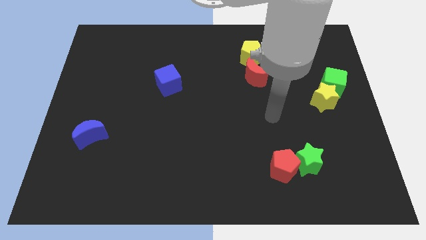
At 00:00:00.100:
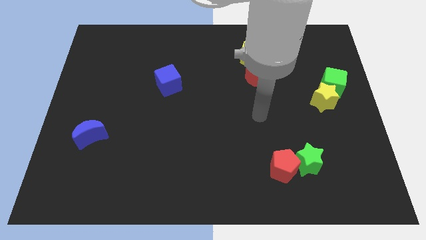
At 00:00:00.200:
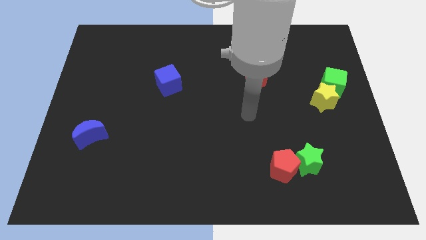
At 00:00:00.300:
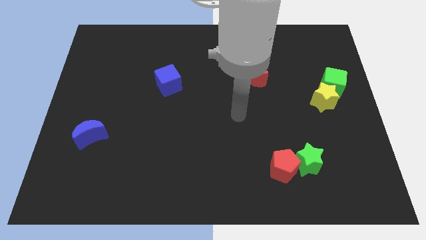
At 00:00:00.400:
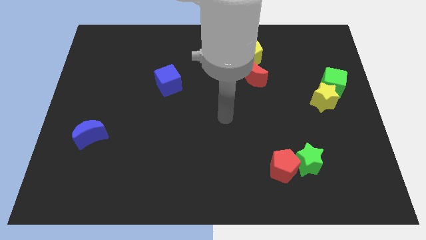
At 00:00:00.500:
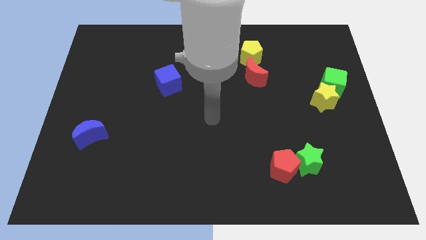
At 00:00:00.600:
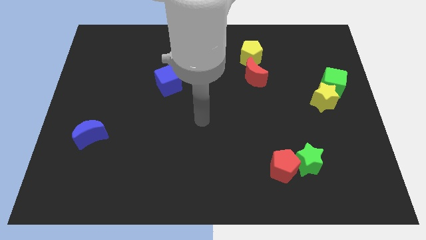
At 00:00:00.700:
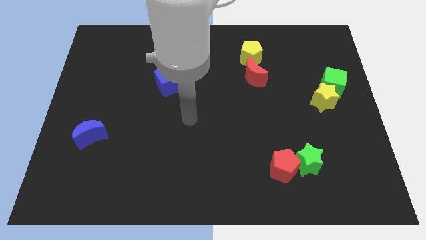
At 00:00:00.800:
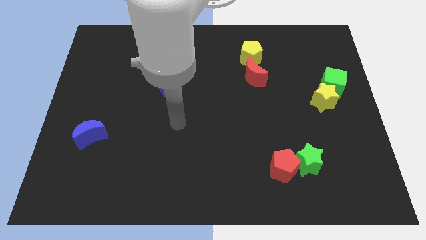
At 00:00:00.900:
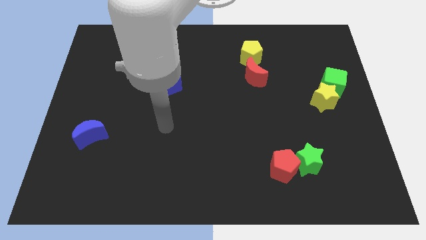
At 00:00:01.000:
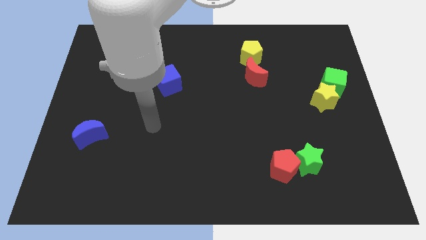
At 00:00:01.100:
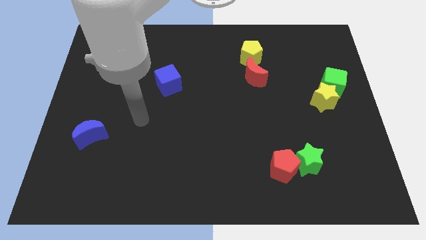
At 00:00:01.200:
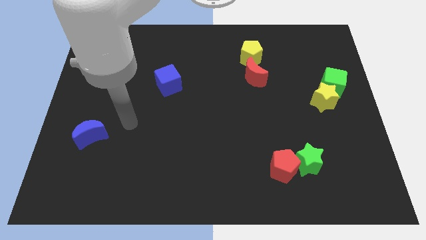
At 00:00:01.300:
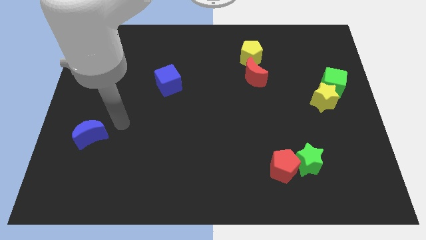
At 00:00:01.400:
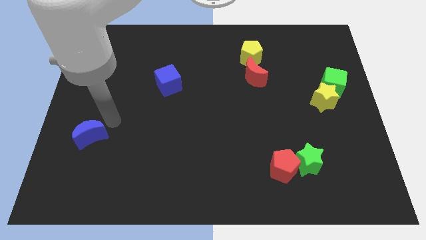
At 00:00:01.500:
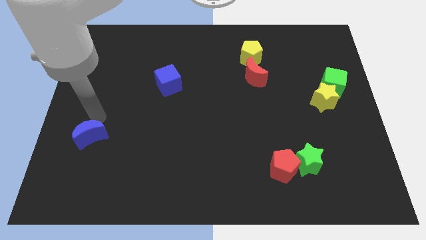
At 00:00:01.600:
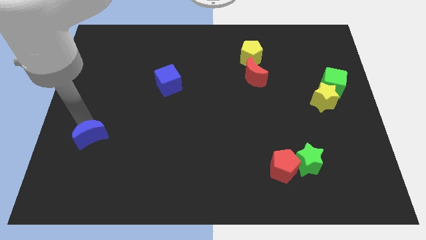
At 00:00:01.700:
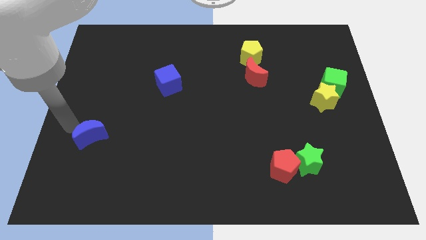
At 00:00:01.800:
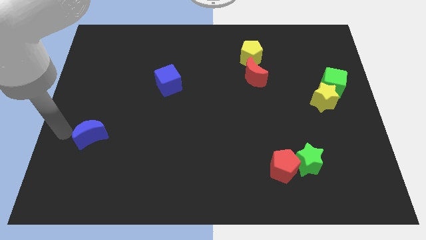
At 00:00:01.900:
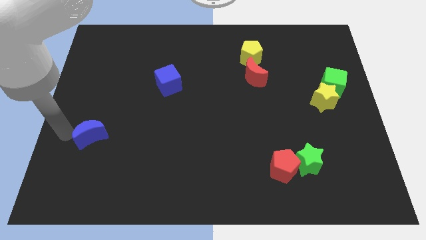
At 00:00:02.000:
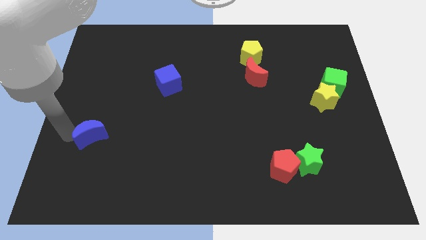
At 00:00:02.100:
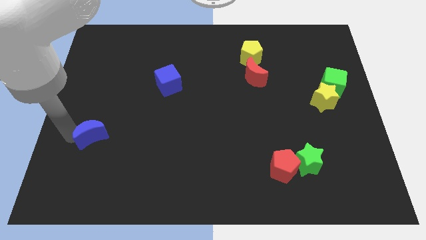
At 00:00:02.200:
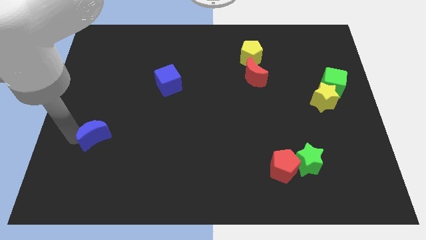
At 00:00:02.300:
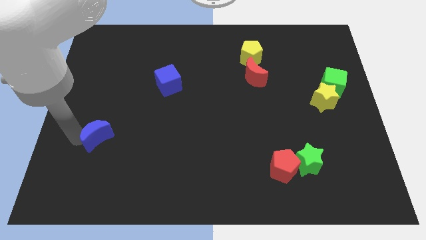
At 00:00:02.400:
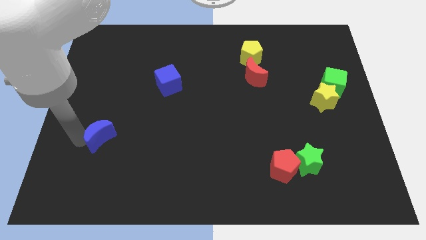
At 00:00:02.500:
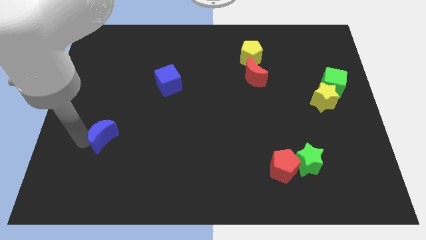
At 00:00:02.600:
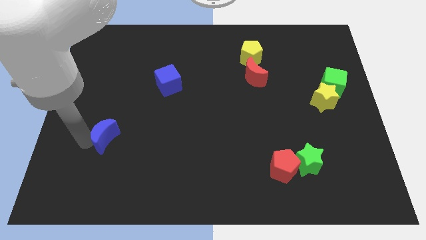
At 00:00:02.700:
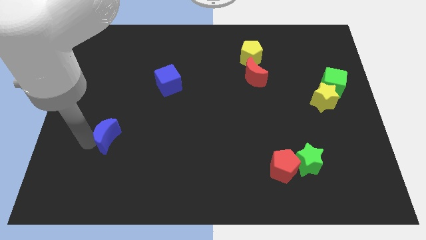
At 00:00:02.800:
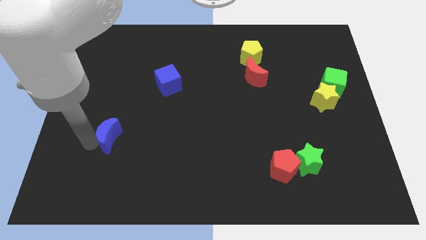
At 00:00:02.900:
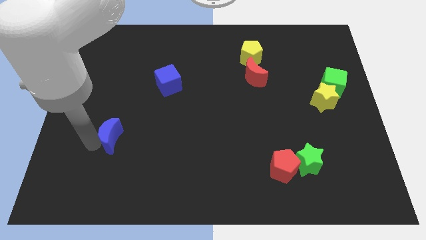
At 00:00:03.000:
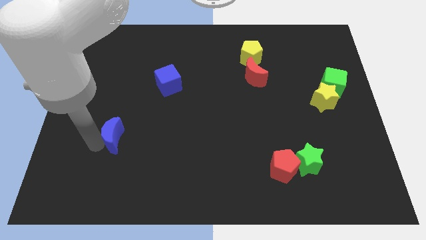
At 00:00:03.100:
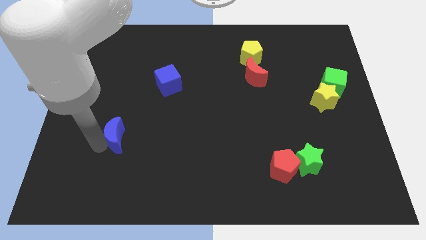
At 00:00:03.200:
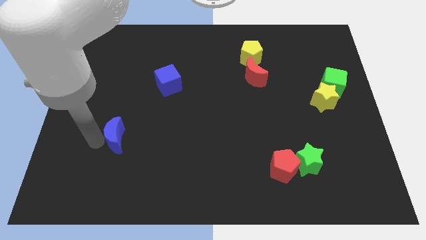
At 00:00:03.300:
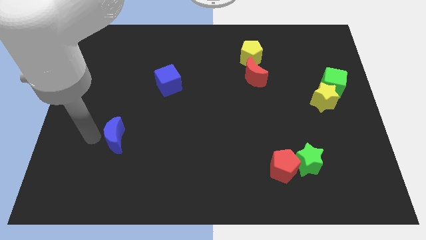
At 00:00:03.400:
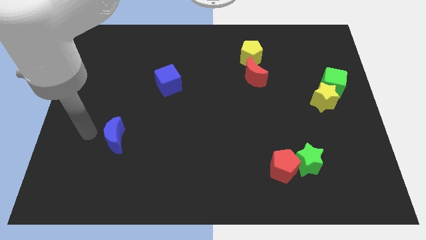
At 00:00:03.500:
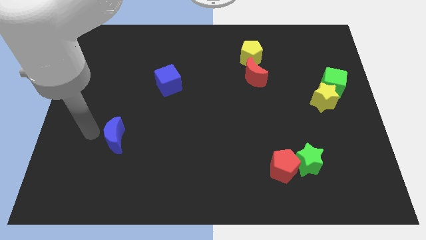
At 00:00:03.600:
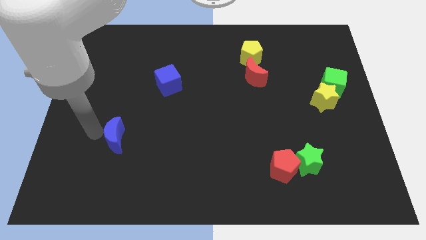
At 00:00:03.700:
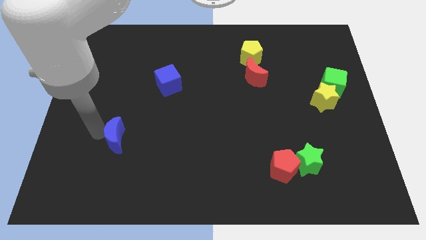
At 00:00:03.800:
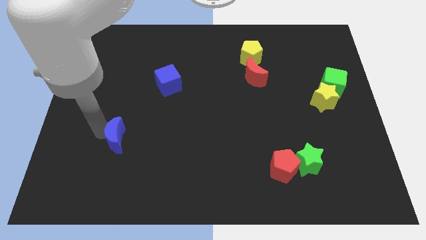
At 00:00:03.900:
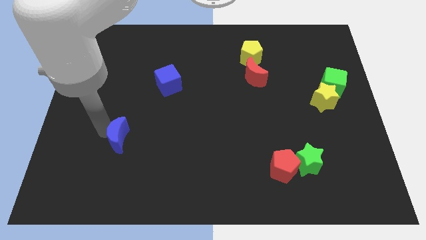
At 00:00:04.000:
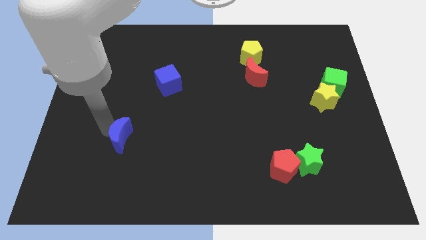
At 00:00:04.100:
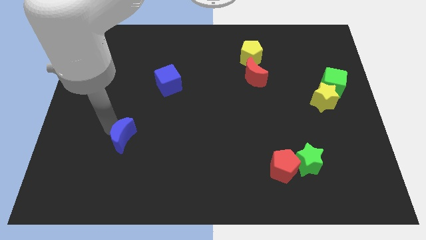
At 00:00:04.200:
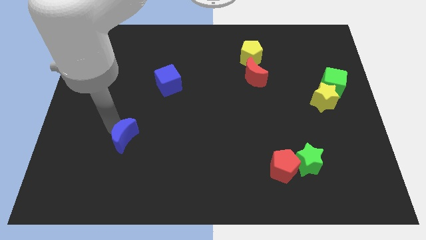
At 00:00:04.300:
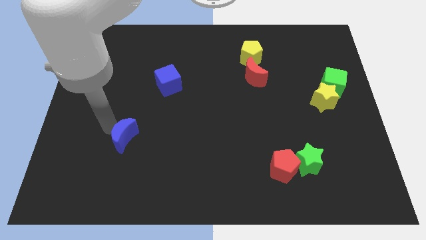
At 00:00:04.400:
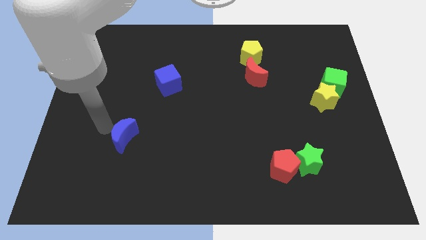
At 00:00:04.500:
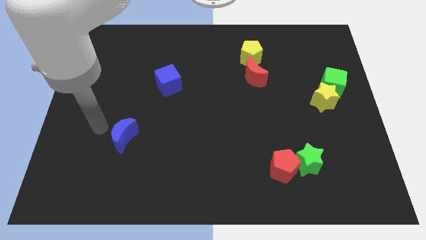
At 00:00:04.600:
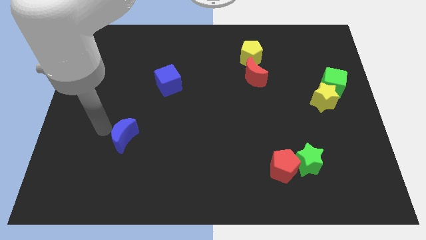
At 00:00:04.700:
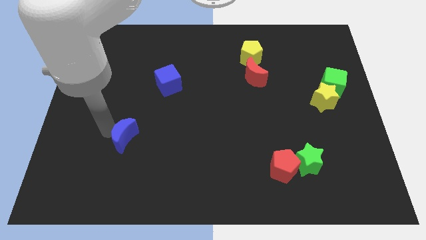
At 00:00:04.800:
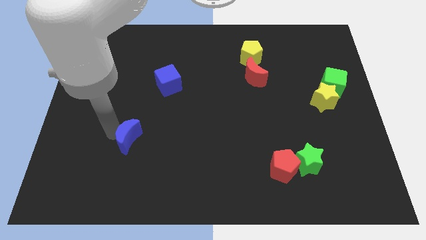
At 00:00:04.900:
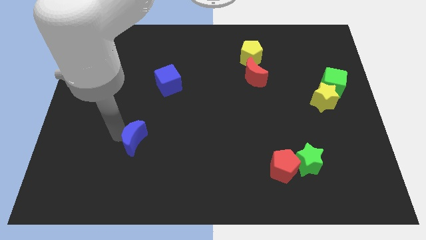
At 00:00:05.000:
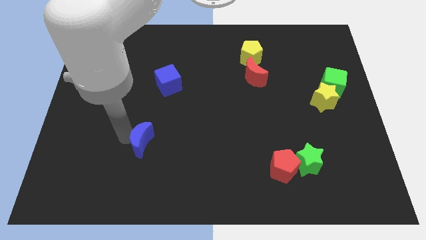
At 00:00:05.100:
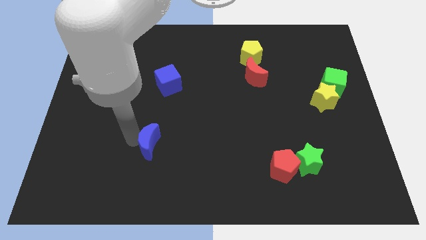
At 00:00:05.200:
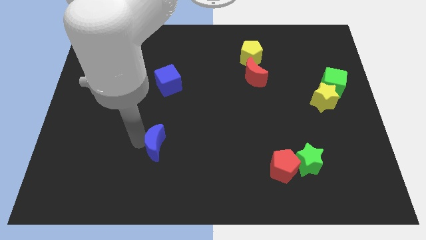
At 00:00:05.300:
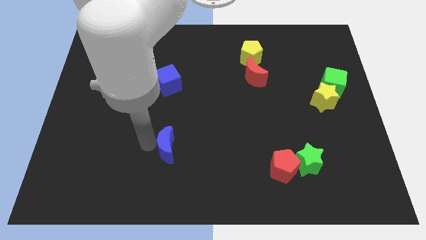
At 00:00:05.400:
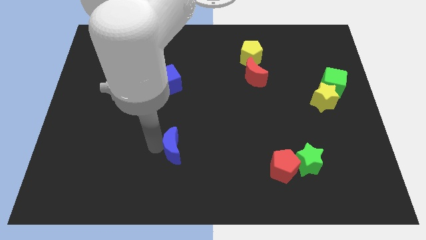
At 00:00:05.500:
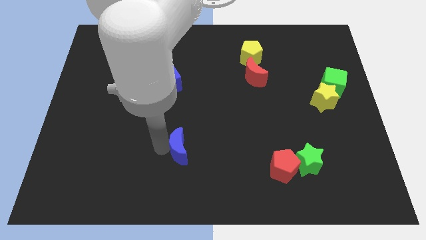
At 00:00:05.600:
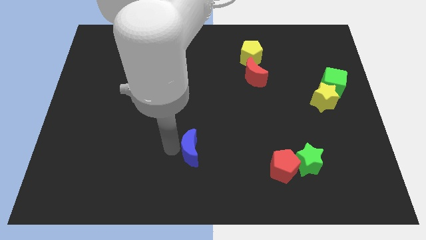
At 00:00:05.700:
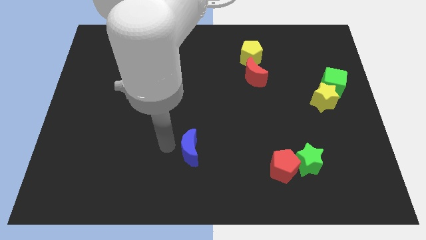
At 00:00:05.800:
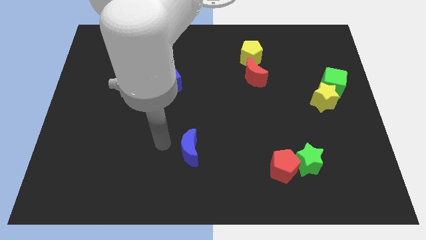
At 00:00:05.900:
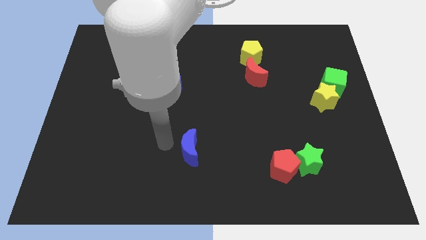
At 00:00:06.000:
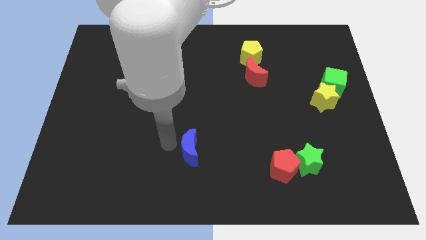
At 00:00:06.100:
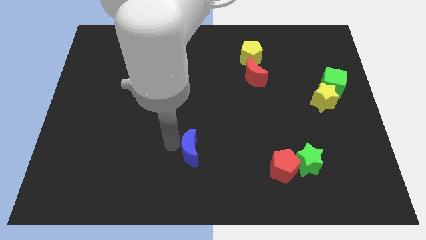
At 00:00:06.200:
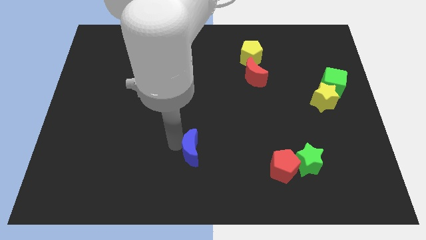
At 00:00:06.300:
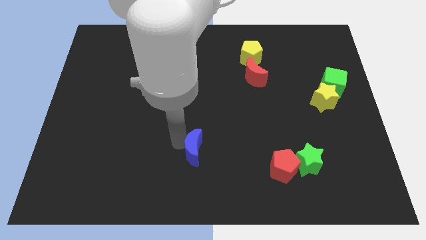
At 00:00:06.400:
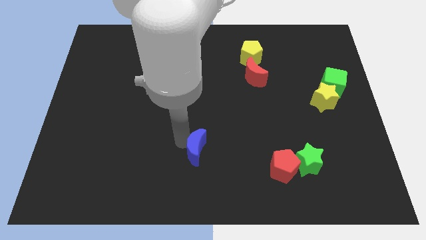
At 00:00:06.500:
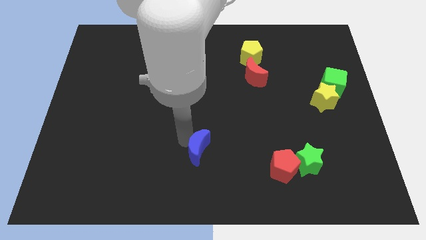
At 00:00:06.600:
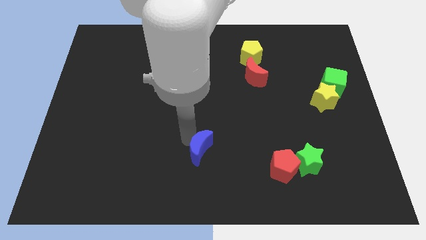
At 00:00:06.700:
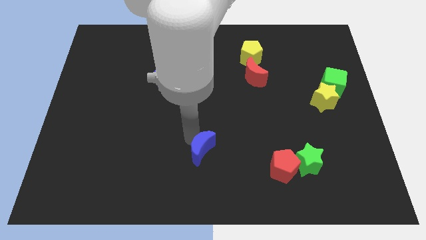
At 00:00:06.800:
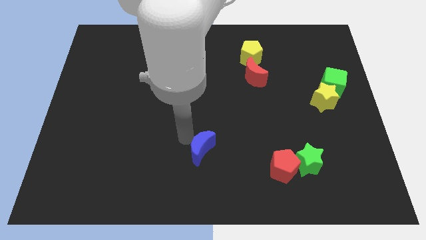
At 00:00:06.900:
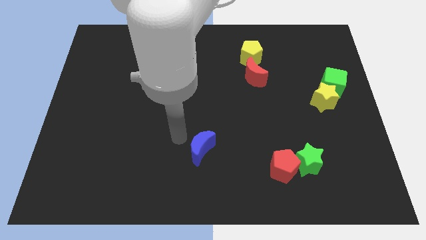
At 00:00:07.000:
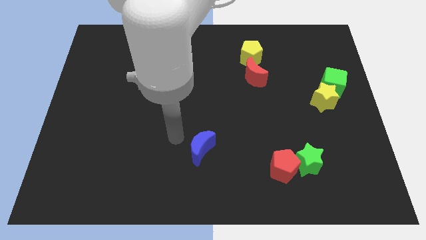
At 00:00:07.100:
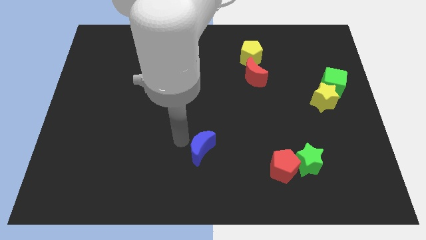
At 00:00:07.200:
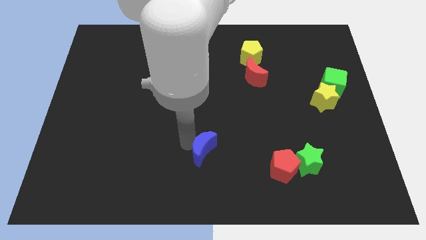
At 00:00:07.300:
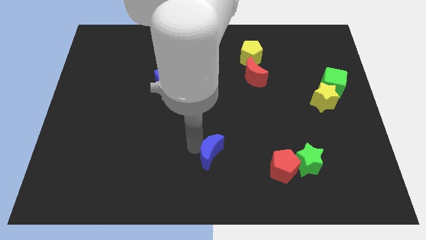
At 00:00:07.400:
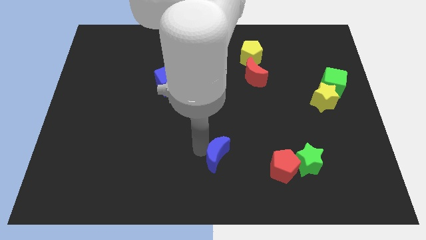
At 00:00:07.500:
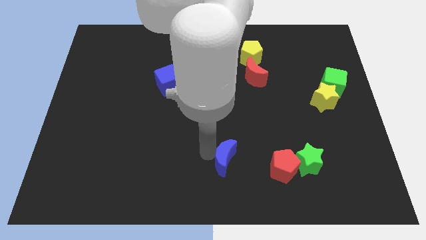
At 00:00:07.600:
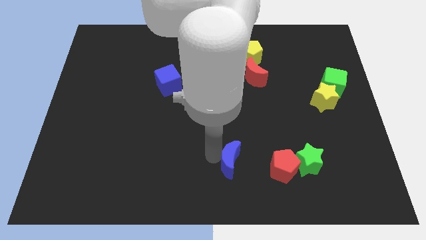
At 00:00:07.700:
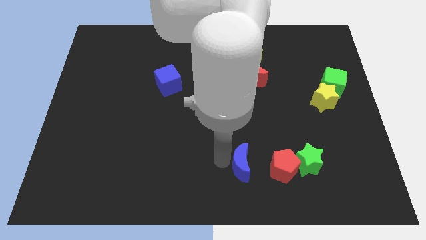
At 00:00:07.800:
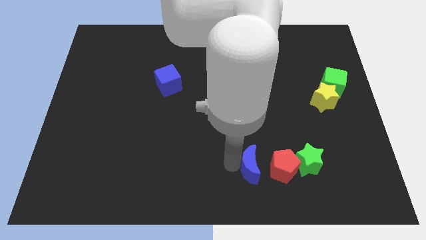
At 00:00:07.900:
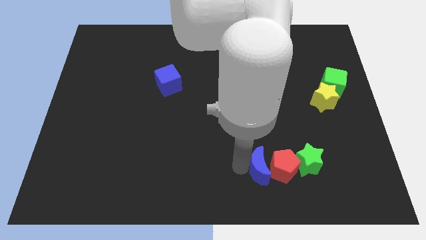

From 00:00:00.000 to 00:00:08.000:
slide the blue moon next to the red pentagon
